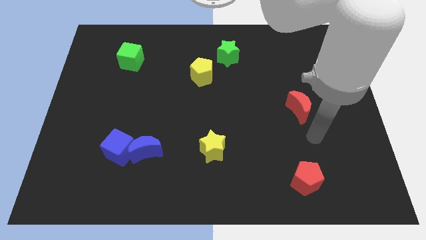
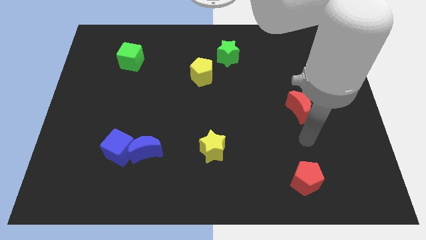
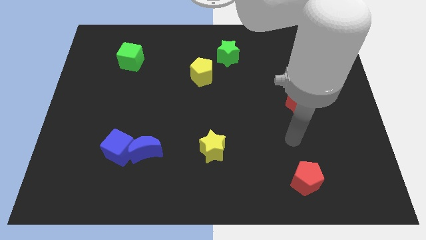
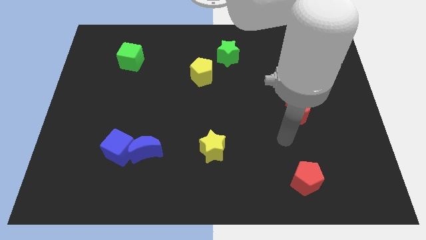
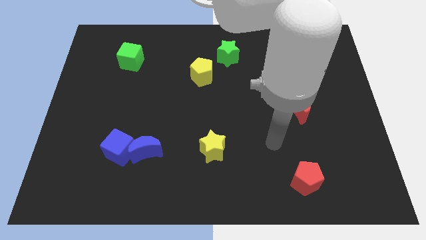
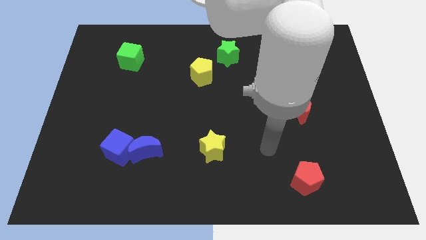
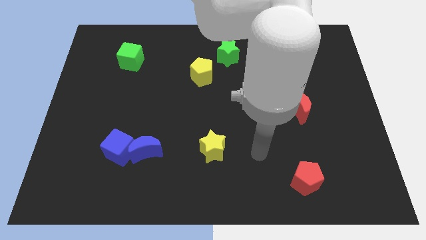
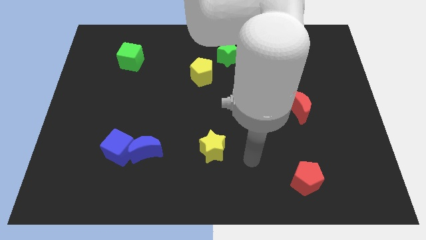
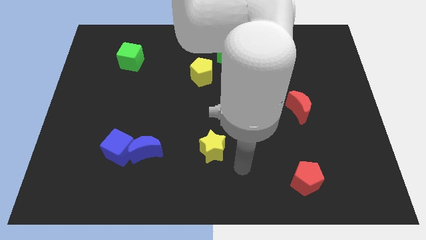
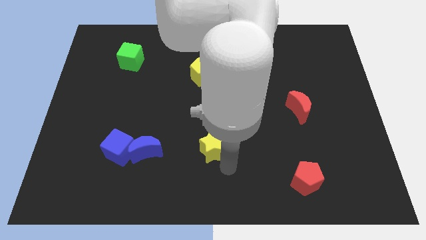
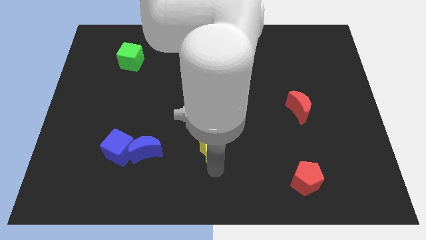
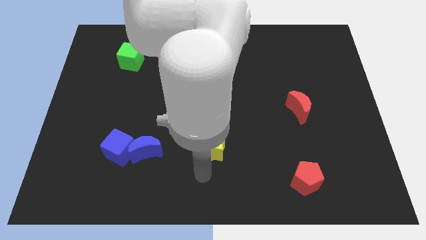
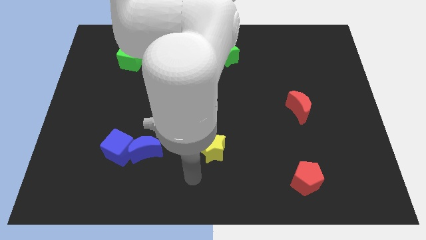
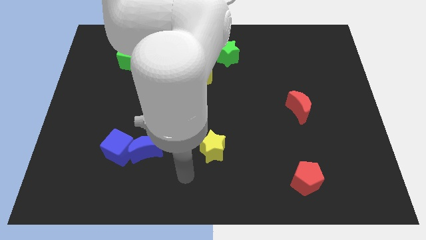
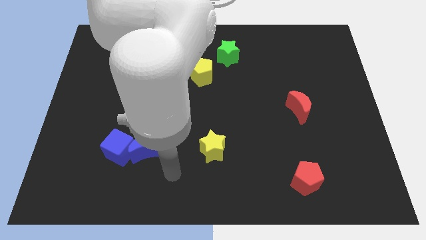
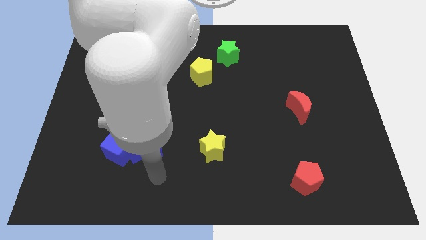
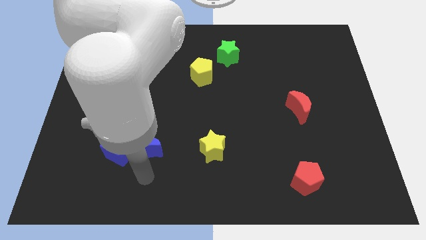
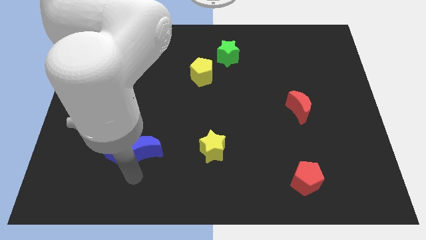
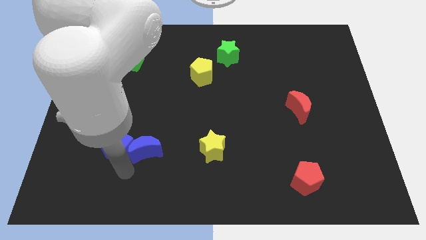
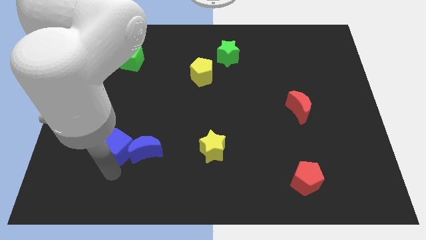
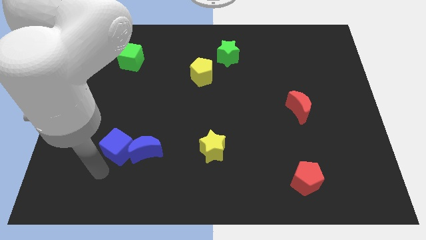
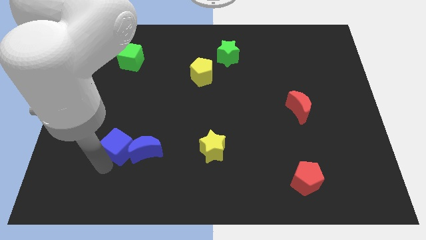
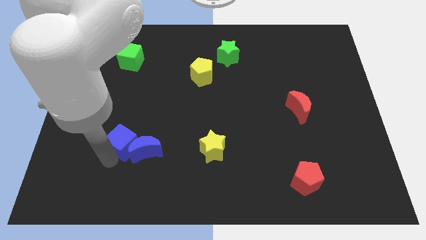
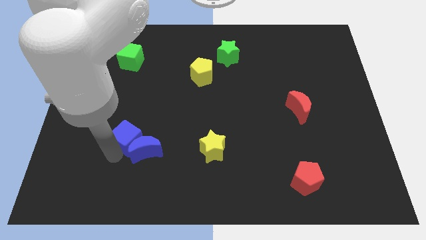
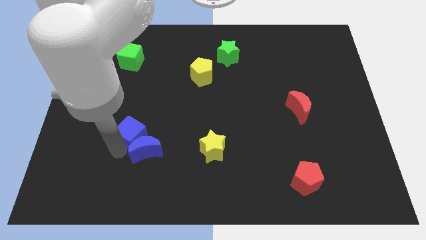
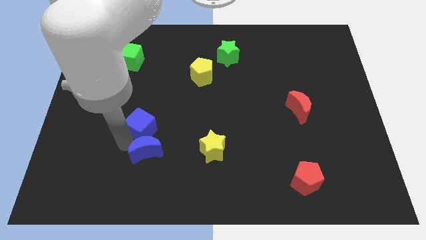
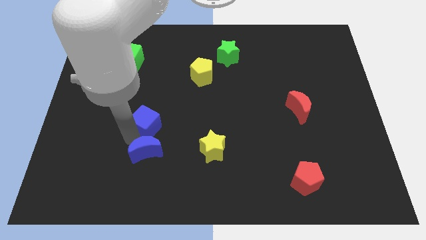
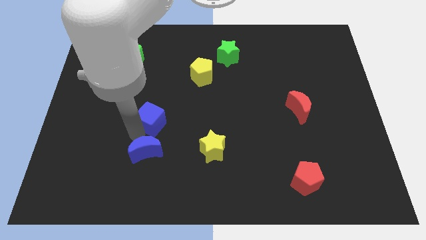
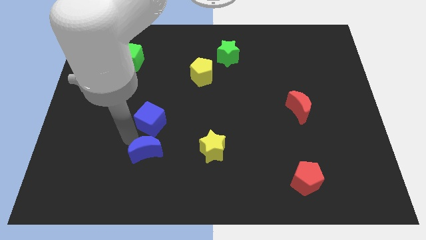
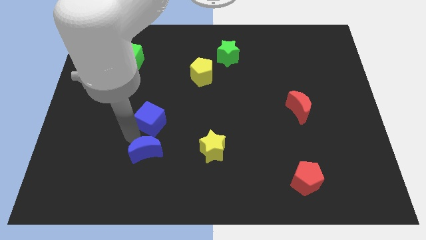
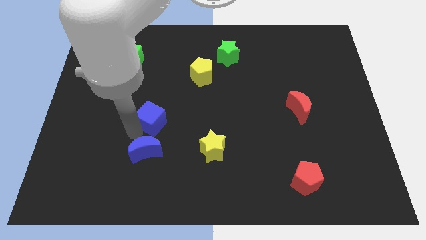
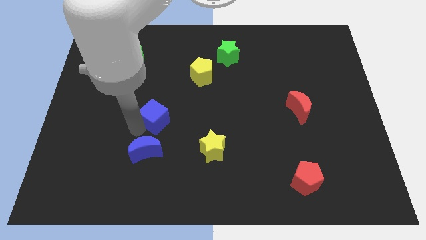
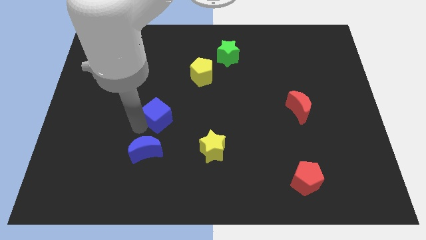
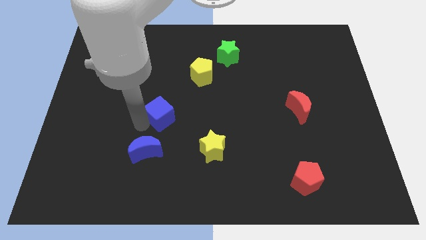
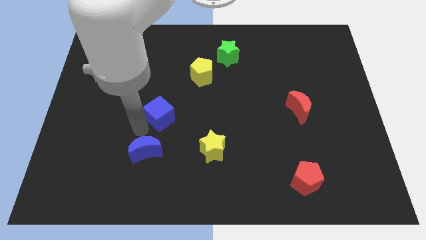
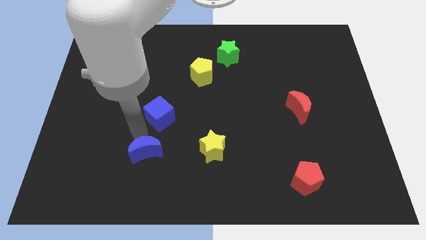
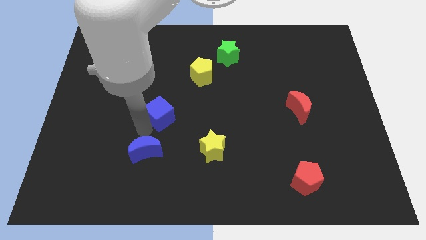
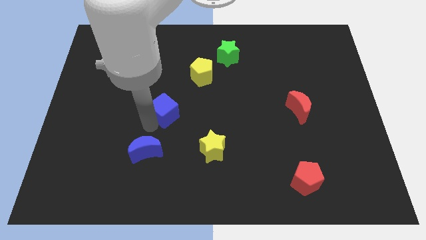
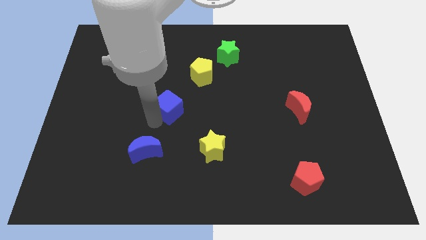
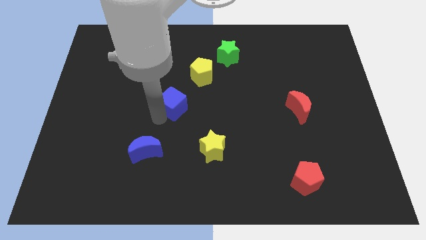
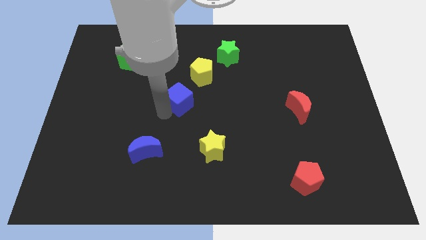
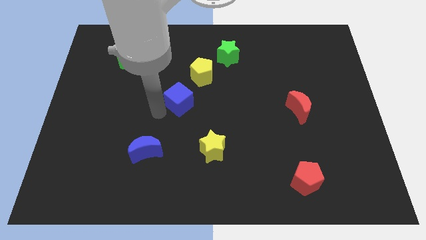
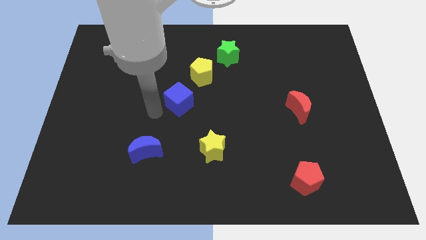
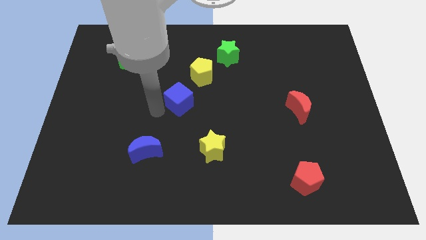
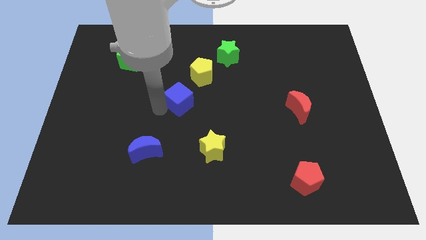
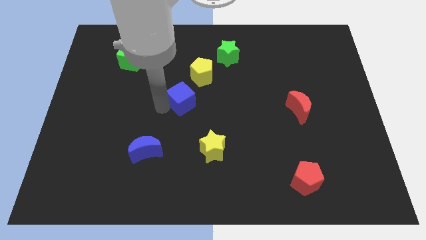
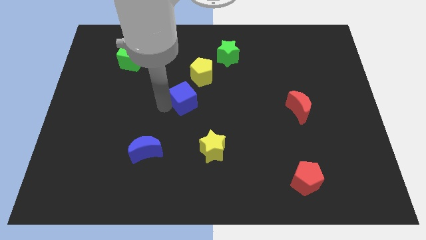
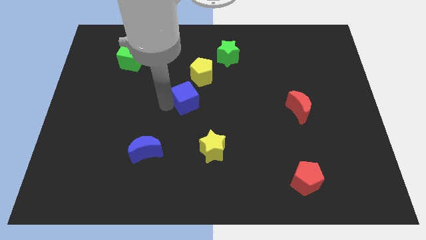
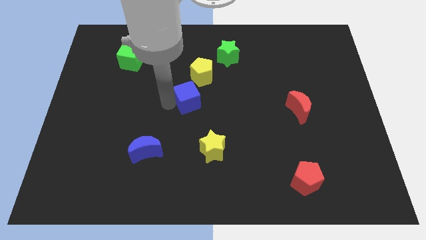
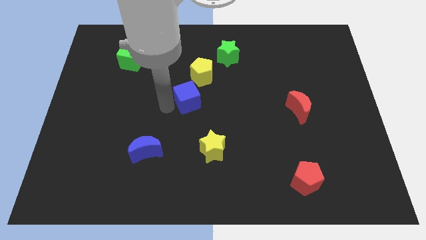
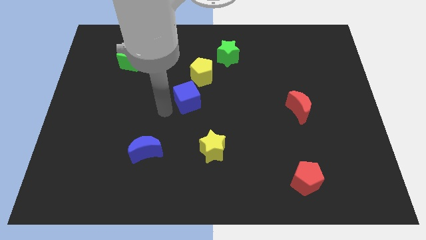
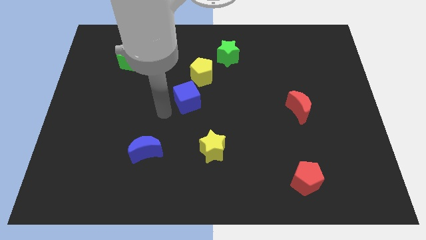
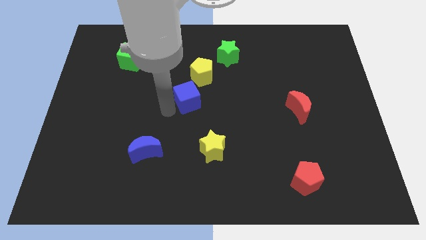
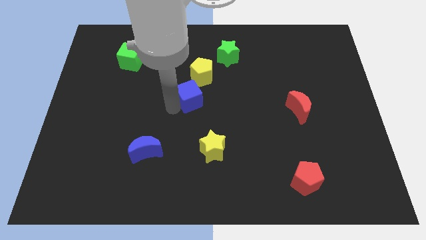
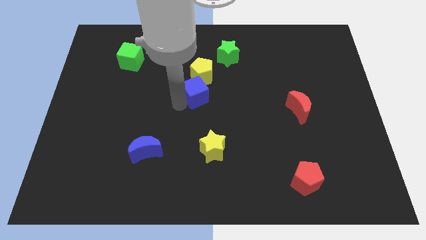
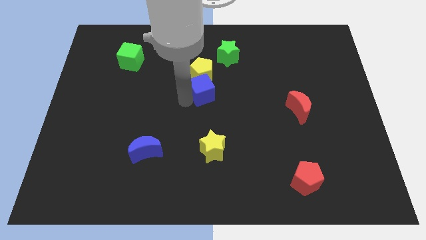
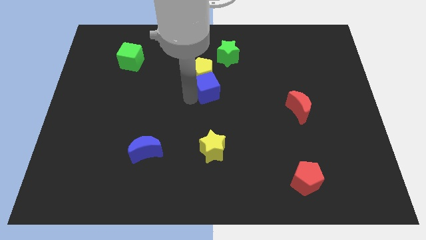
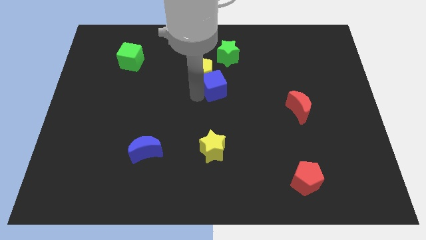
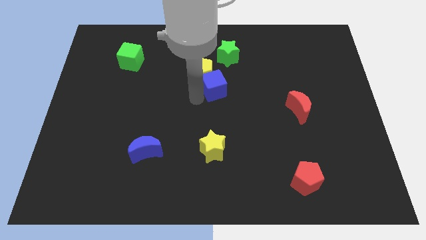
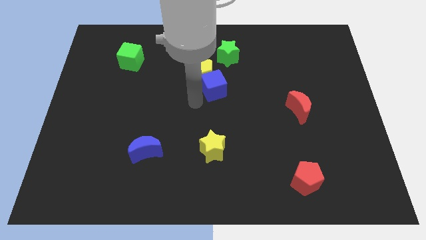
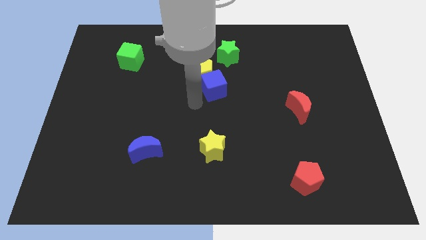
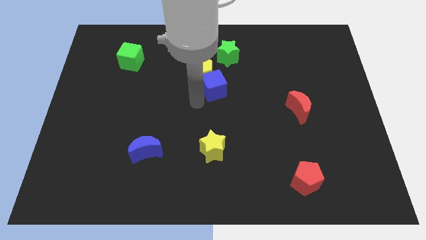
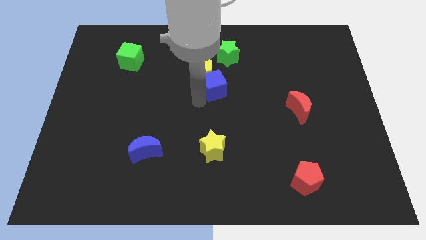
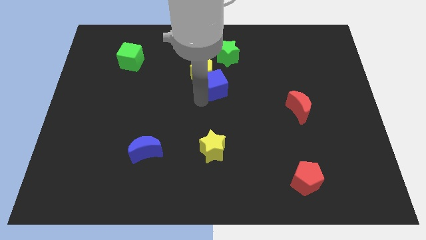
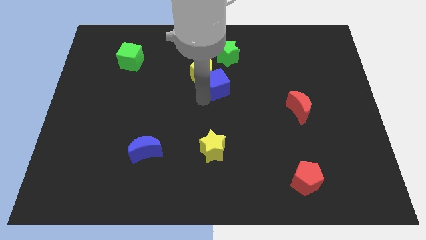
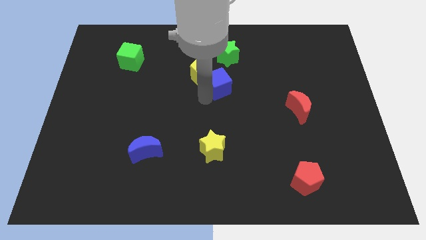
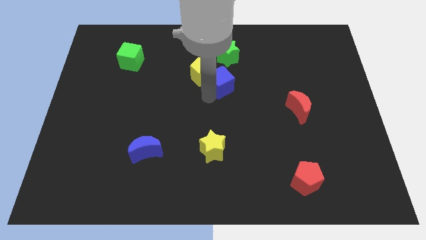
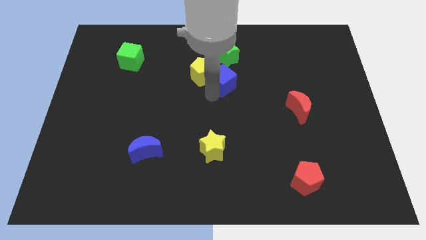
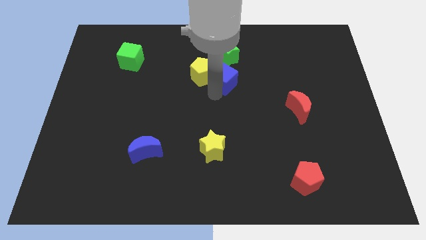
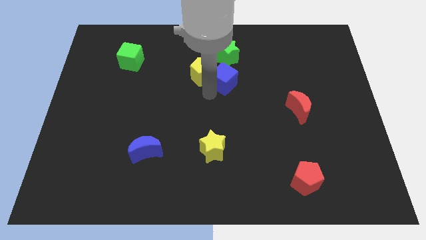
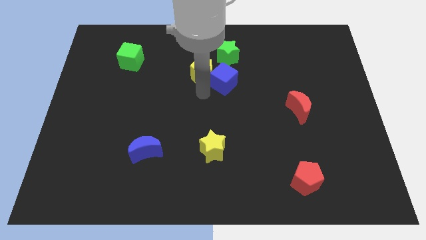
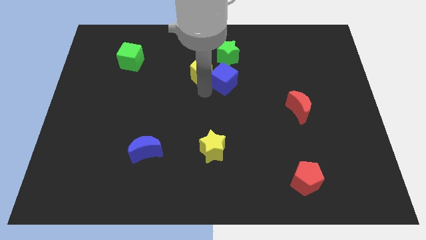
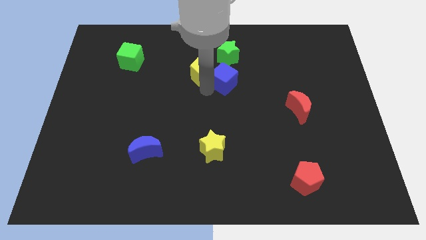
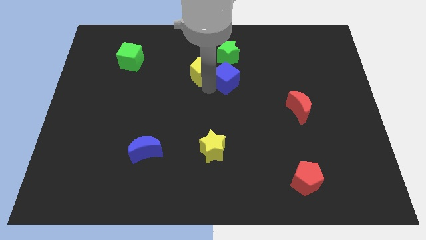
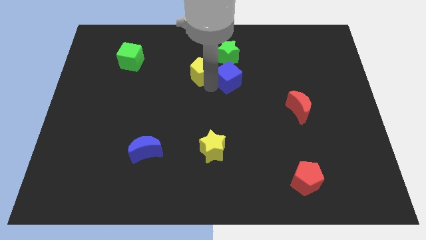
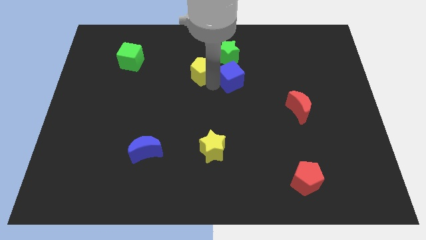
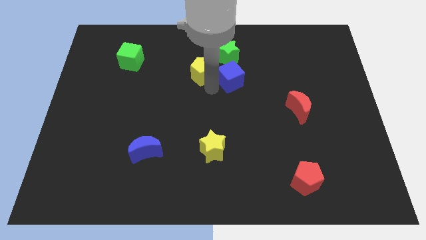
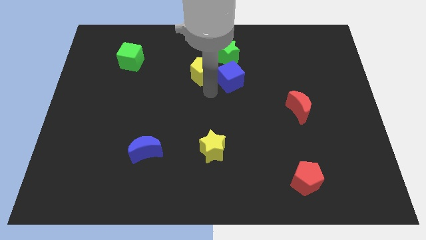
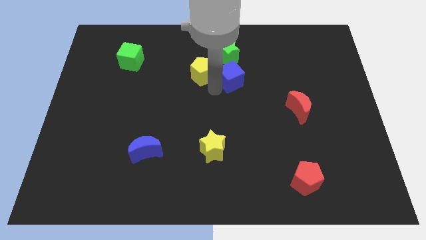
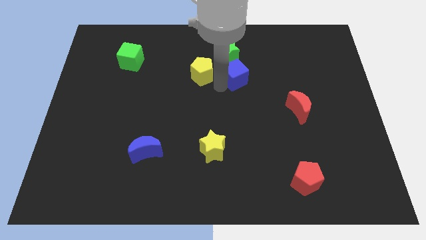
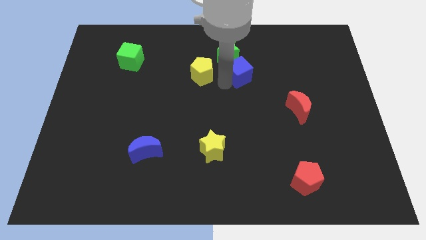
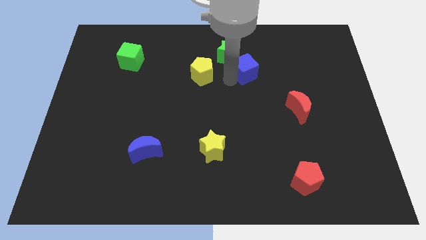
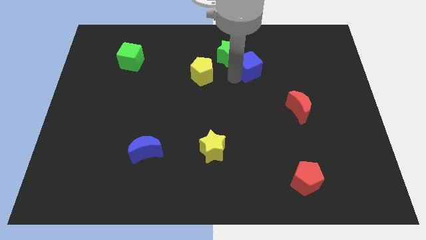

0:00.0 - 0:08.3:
push the blue cube right of the green star

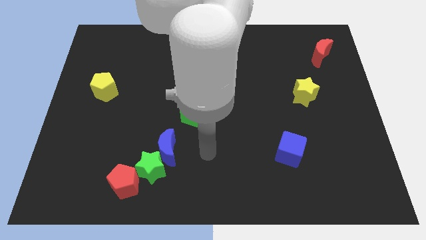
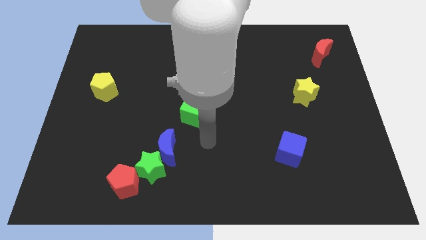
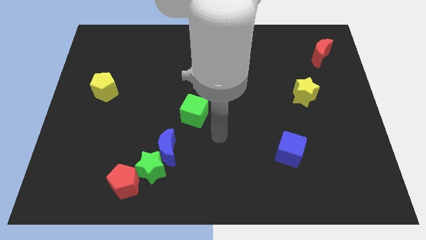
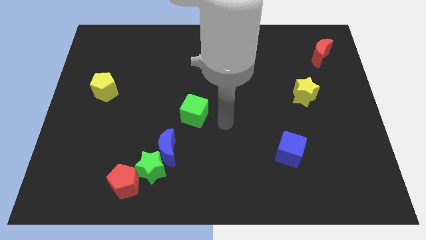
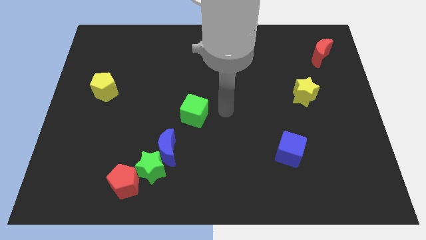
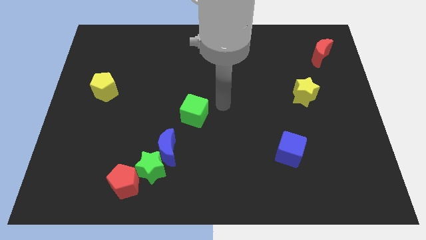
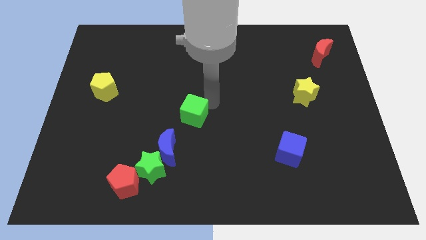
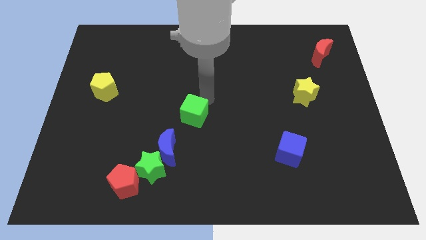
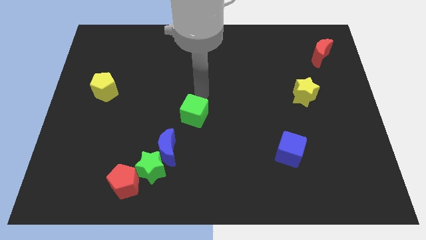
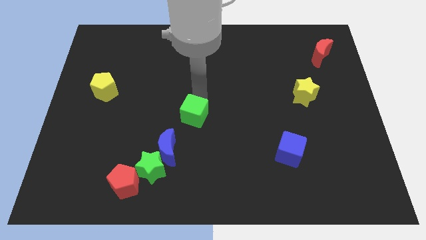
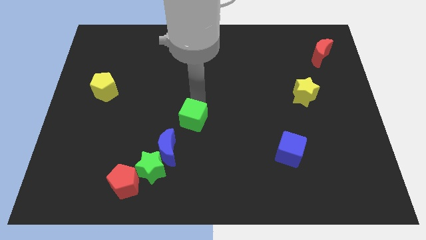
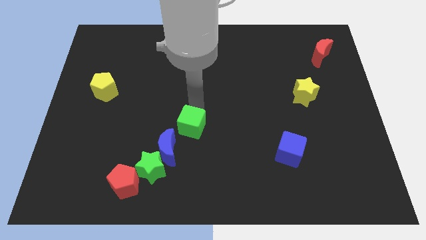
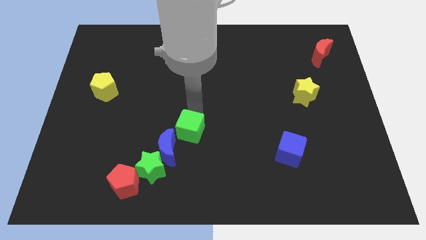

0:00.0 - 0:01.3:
put the green cube to the top right side of the green star
